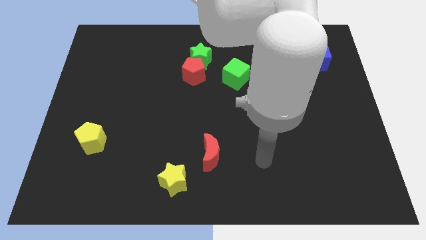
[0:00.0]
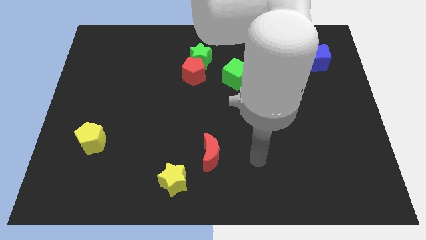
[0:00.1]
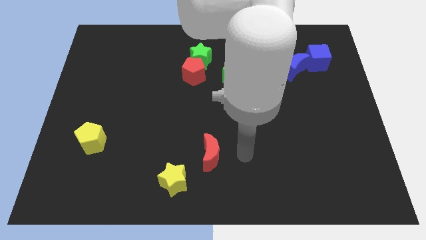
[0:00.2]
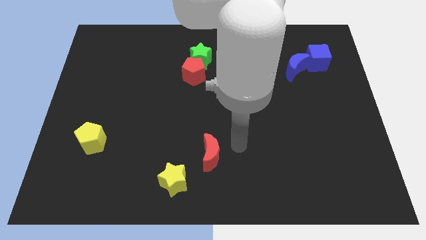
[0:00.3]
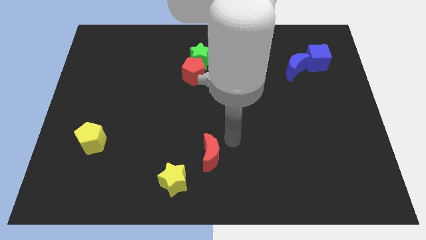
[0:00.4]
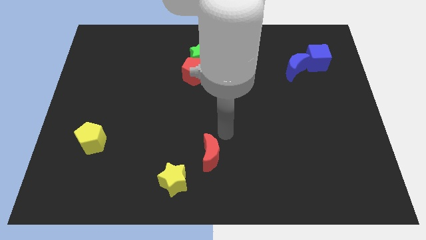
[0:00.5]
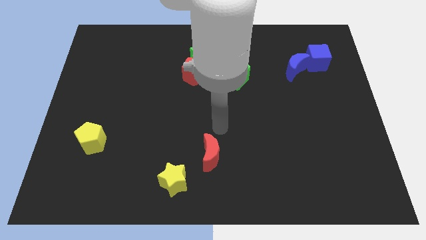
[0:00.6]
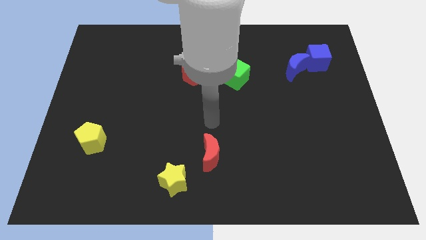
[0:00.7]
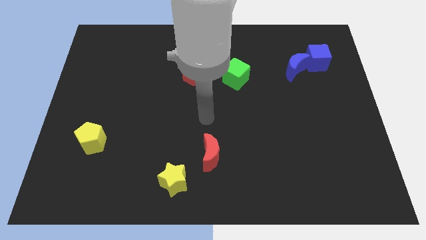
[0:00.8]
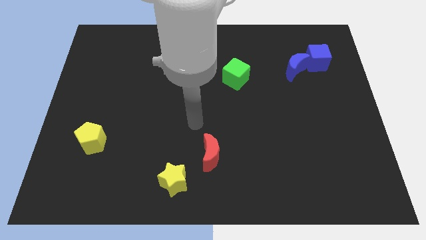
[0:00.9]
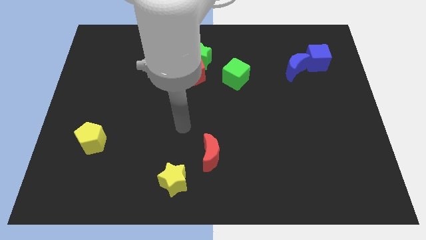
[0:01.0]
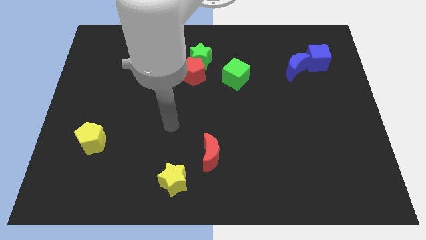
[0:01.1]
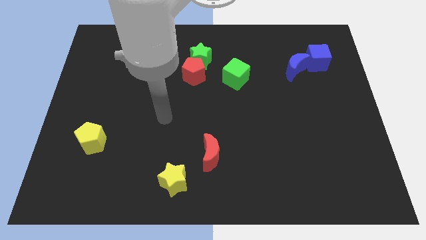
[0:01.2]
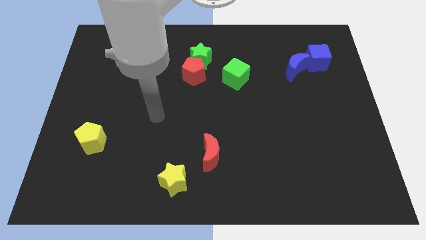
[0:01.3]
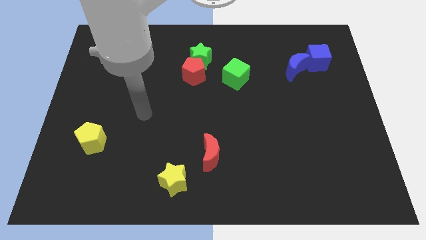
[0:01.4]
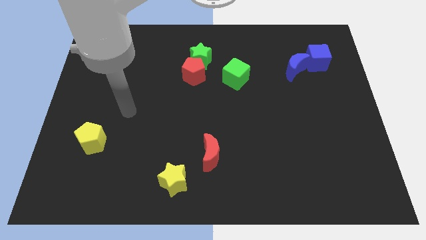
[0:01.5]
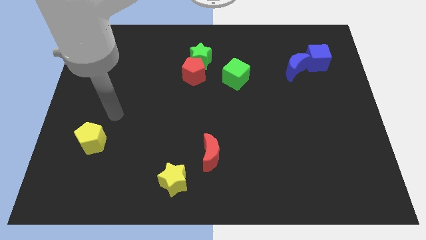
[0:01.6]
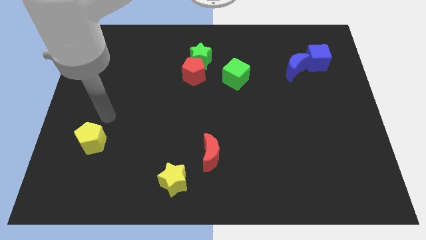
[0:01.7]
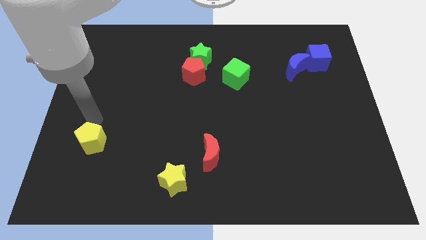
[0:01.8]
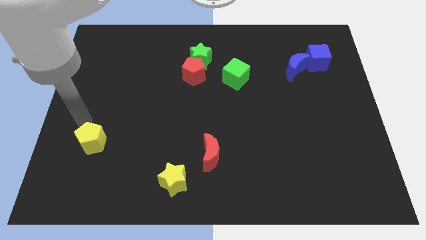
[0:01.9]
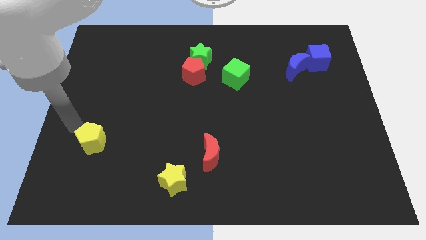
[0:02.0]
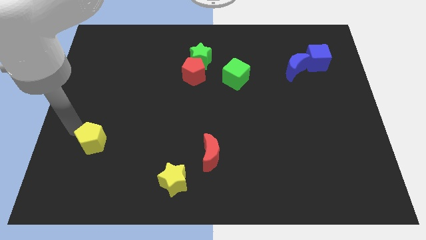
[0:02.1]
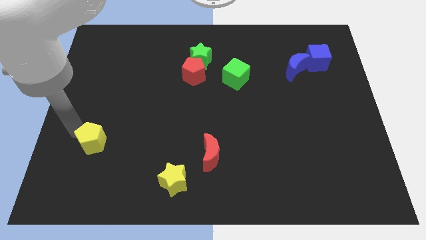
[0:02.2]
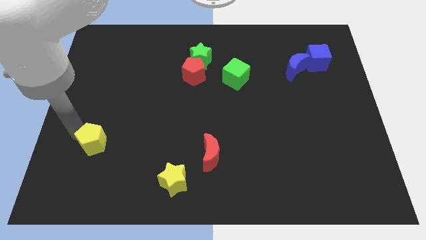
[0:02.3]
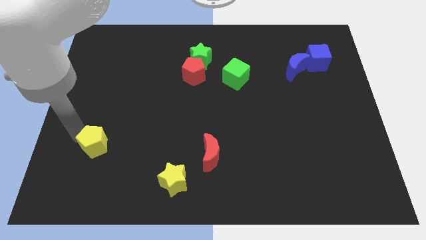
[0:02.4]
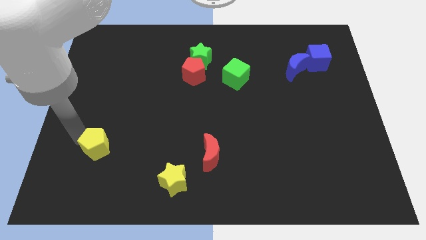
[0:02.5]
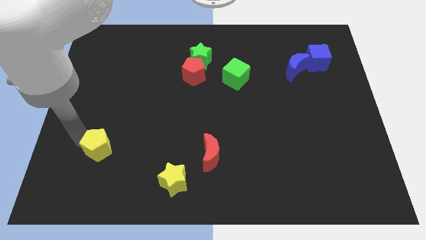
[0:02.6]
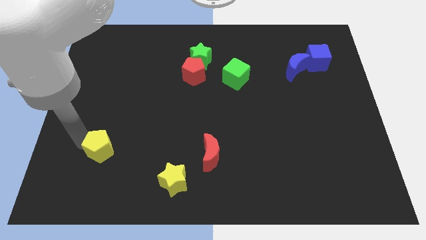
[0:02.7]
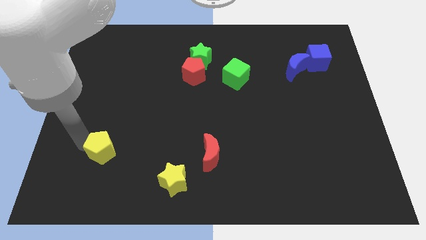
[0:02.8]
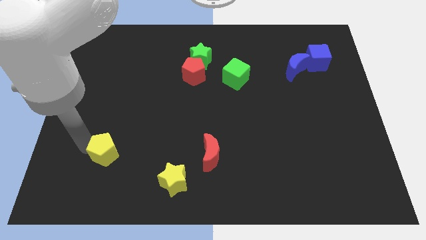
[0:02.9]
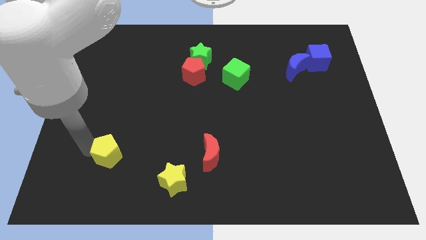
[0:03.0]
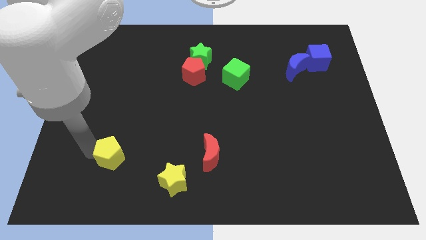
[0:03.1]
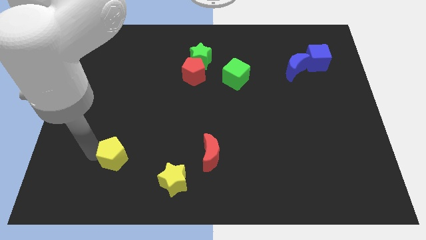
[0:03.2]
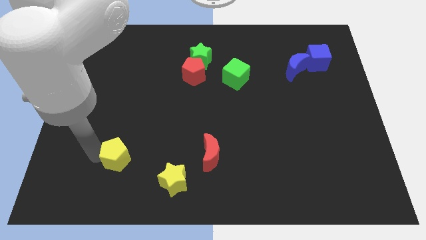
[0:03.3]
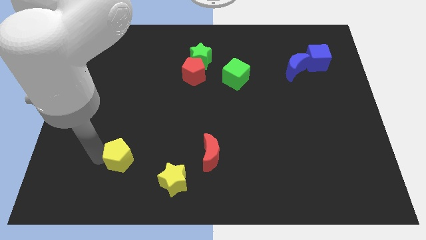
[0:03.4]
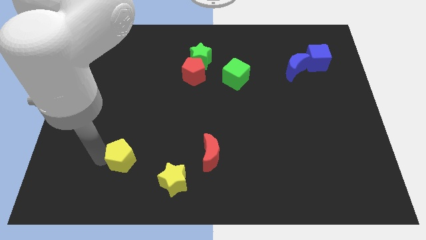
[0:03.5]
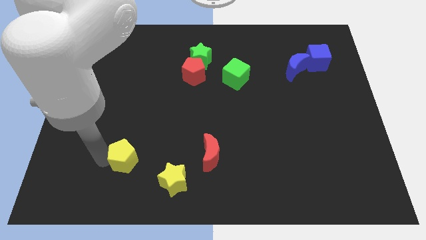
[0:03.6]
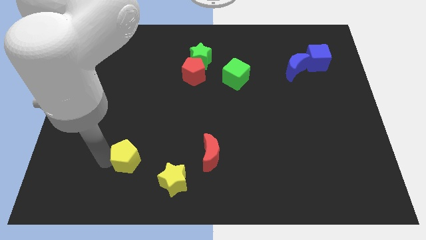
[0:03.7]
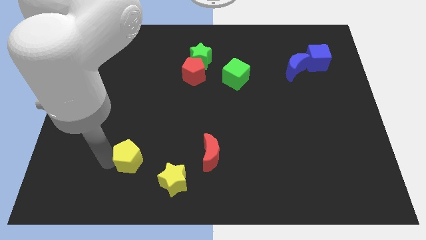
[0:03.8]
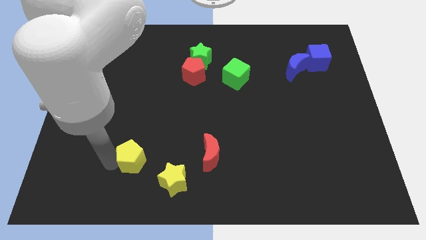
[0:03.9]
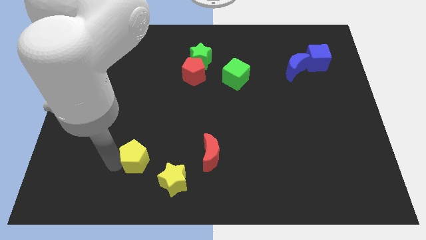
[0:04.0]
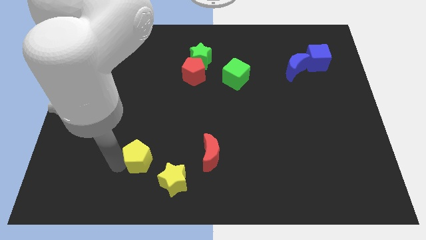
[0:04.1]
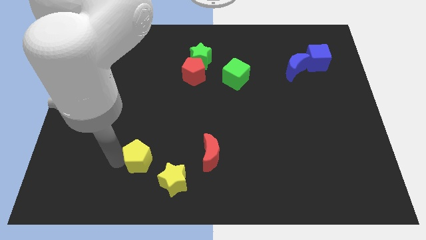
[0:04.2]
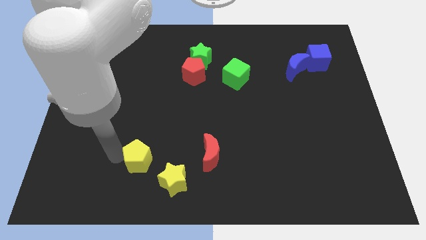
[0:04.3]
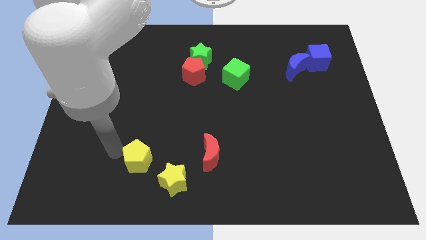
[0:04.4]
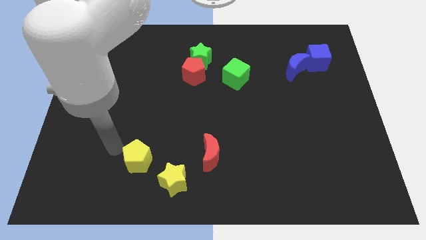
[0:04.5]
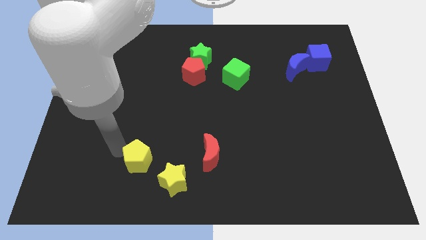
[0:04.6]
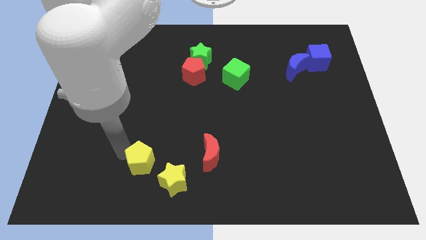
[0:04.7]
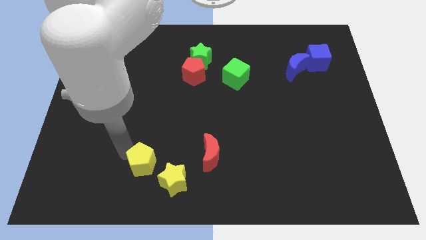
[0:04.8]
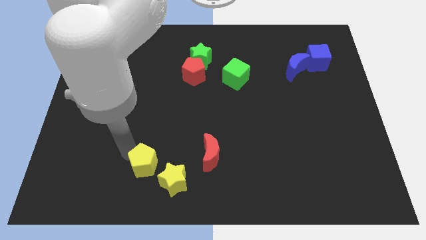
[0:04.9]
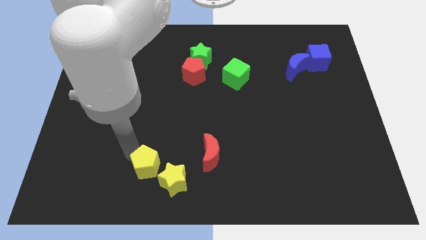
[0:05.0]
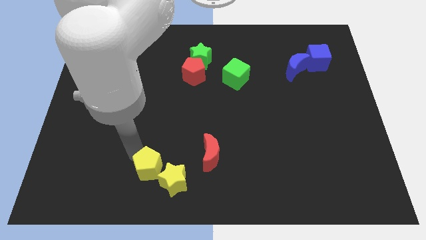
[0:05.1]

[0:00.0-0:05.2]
move the yellow pentagon next to the yellow star

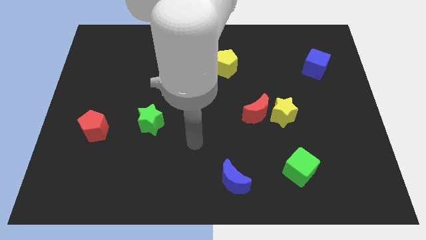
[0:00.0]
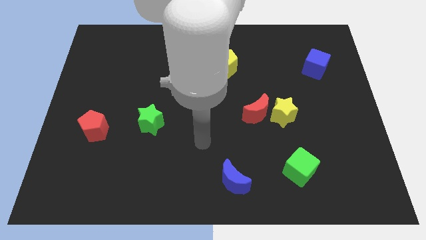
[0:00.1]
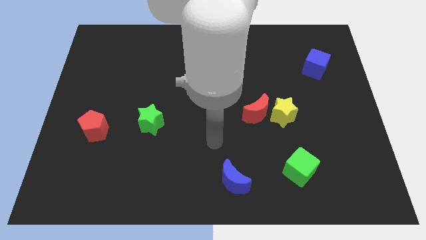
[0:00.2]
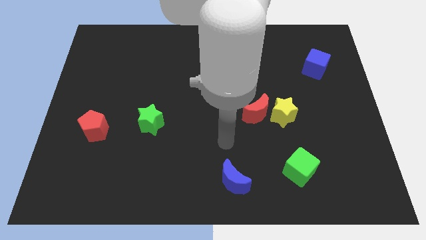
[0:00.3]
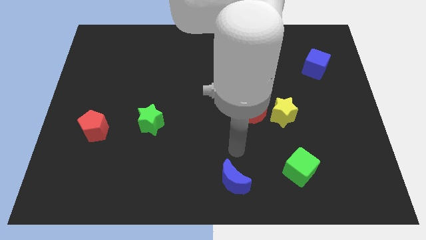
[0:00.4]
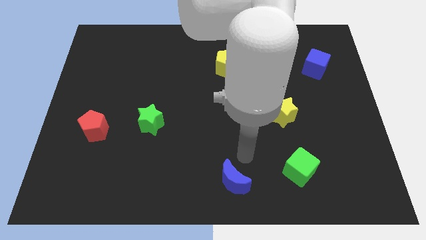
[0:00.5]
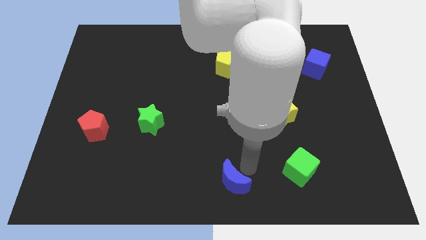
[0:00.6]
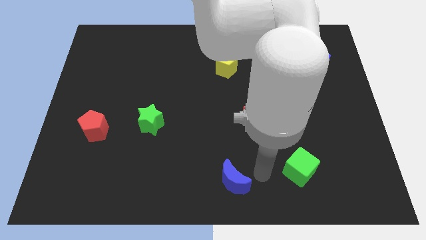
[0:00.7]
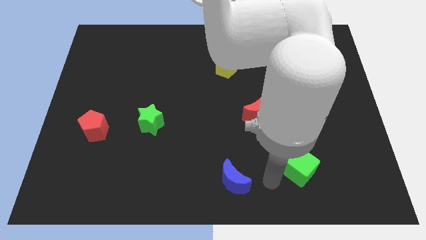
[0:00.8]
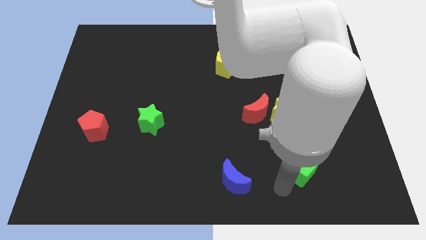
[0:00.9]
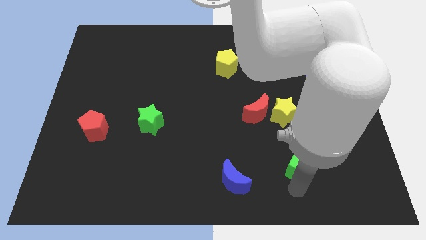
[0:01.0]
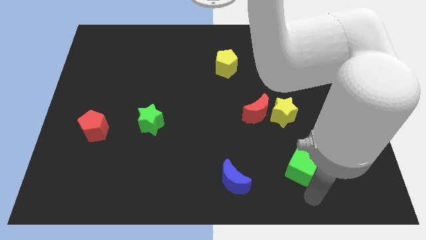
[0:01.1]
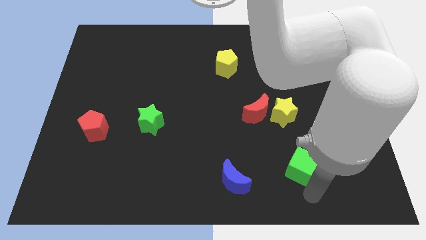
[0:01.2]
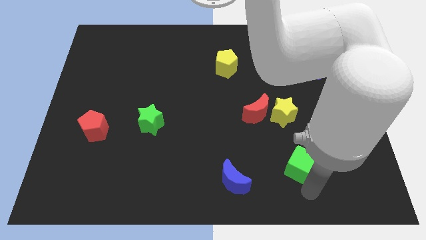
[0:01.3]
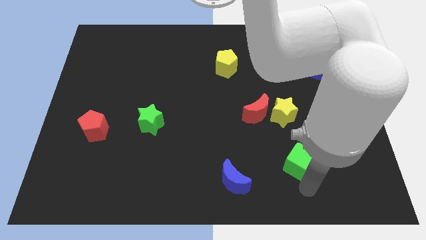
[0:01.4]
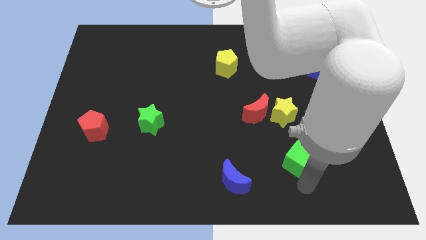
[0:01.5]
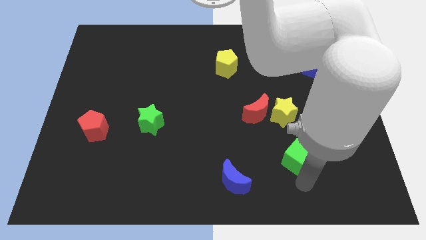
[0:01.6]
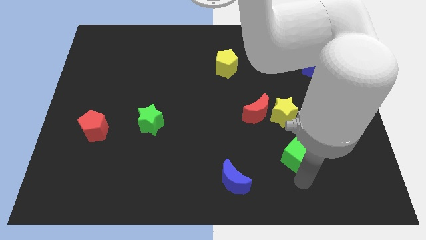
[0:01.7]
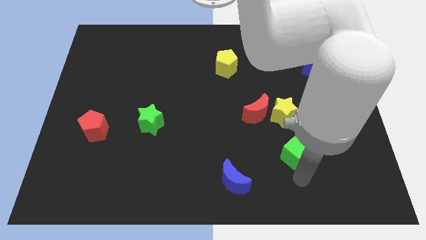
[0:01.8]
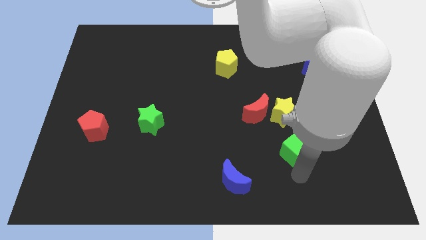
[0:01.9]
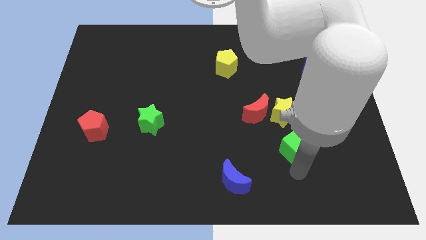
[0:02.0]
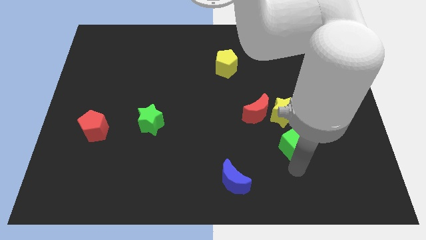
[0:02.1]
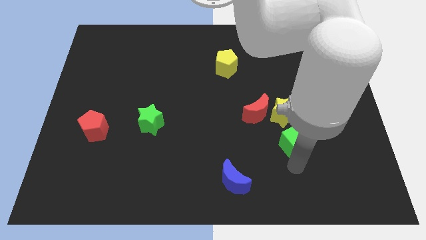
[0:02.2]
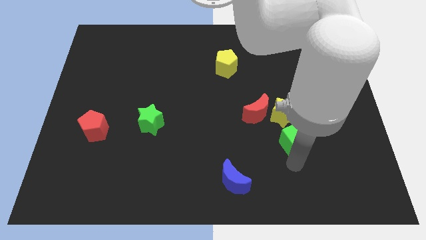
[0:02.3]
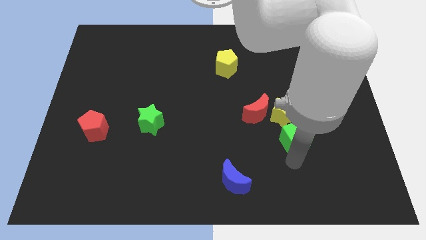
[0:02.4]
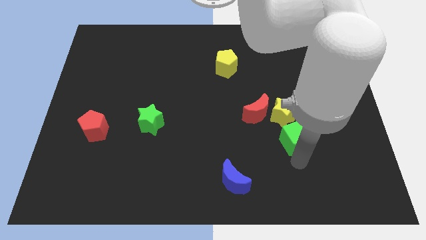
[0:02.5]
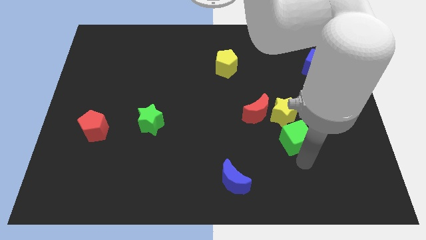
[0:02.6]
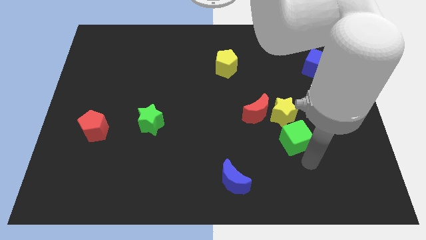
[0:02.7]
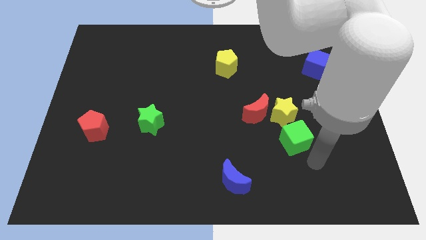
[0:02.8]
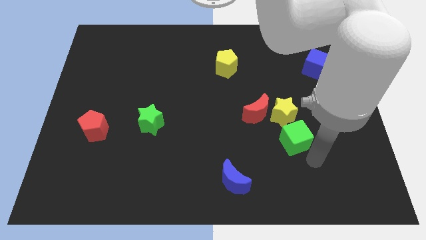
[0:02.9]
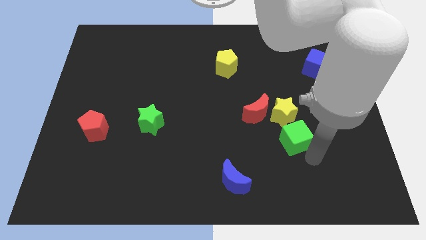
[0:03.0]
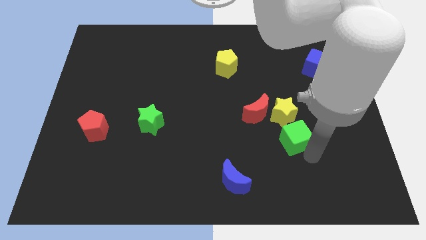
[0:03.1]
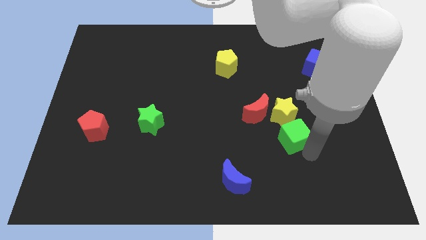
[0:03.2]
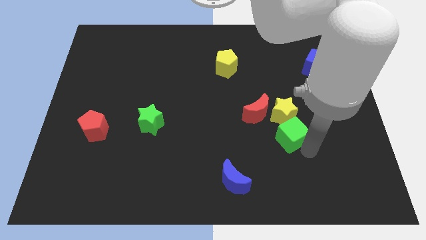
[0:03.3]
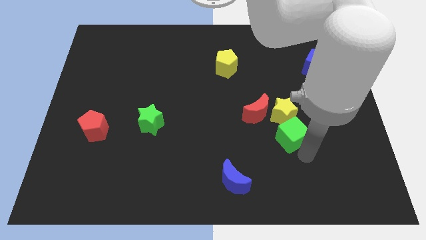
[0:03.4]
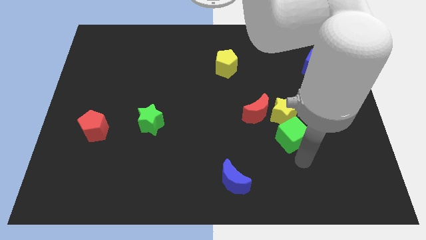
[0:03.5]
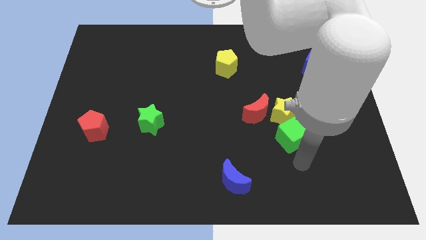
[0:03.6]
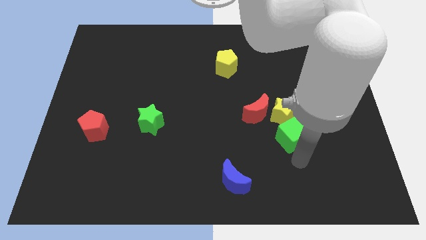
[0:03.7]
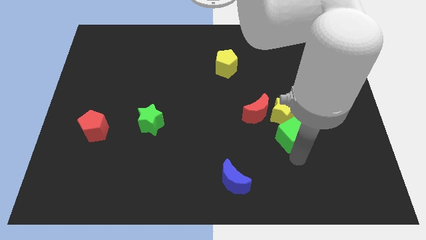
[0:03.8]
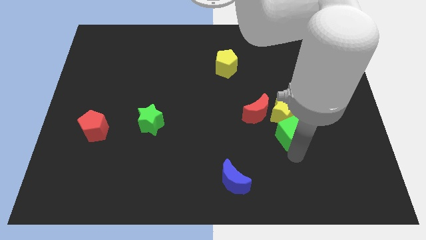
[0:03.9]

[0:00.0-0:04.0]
slide the green cube close to the yellow star
